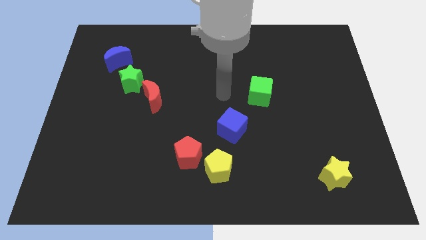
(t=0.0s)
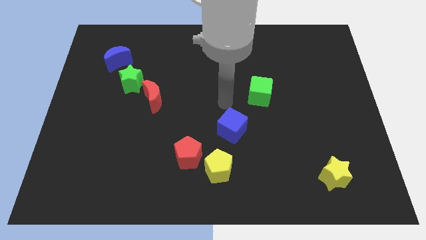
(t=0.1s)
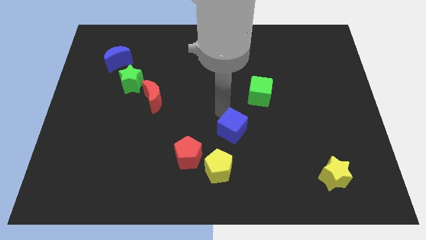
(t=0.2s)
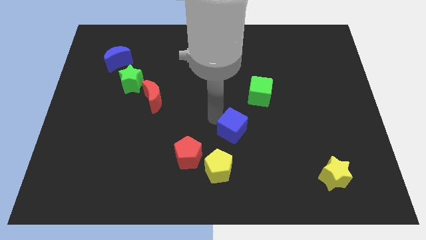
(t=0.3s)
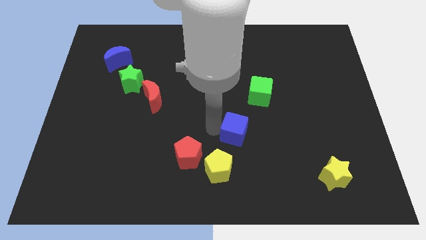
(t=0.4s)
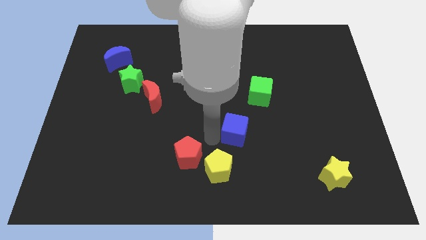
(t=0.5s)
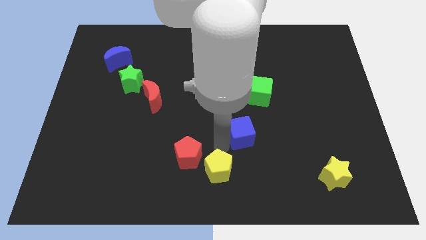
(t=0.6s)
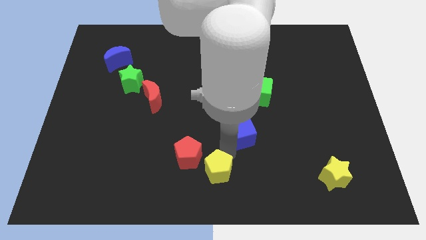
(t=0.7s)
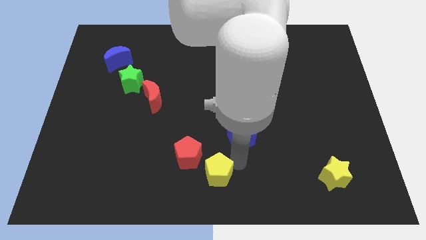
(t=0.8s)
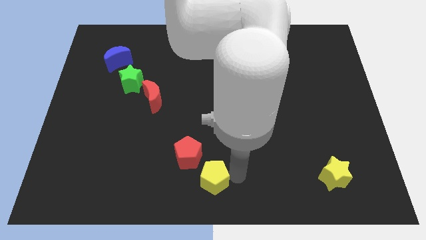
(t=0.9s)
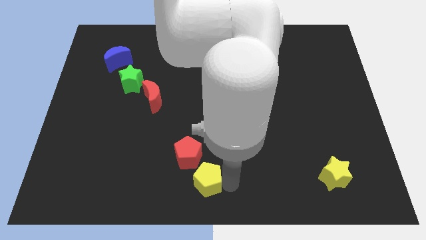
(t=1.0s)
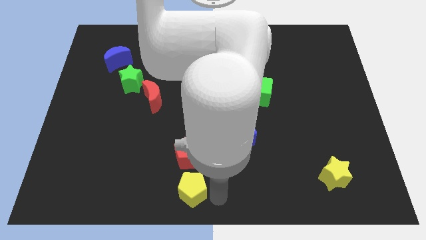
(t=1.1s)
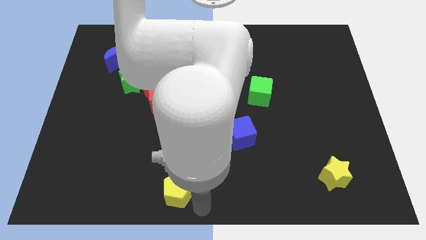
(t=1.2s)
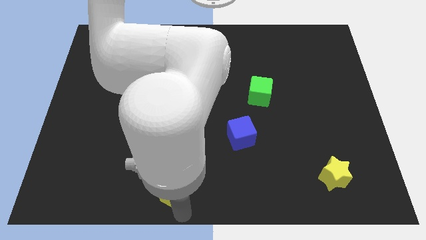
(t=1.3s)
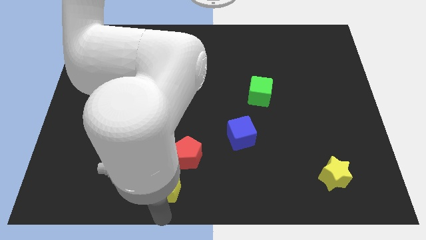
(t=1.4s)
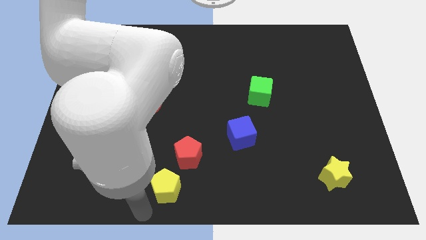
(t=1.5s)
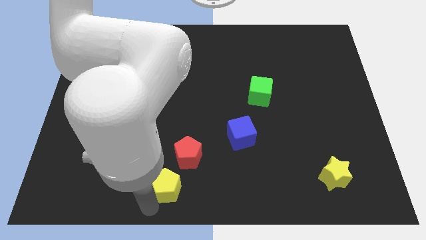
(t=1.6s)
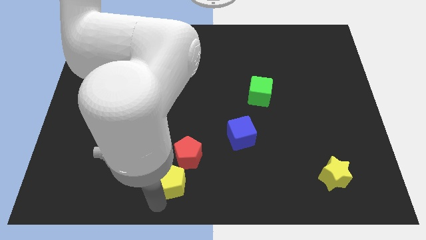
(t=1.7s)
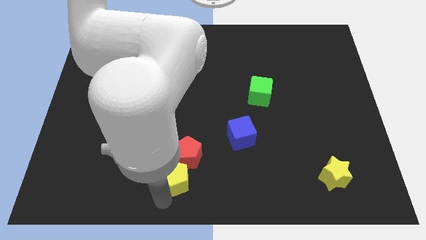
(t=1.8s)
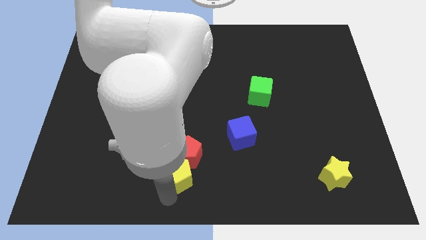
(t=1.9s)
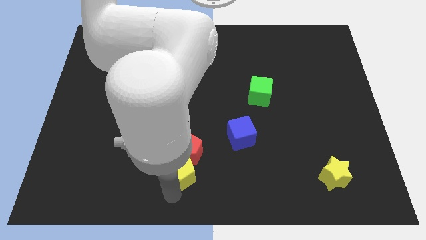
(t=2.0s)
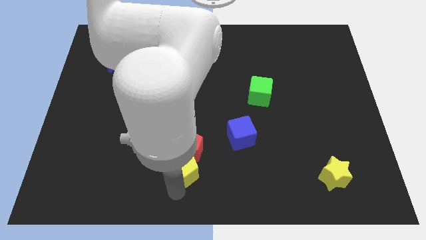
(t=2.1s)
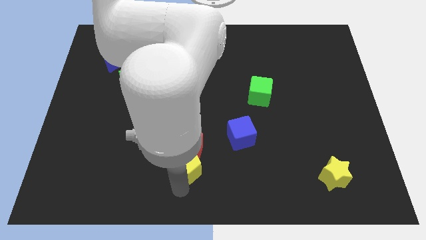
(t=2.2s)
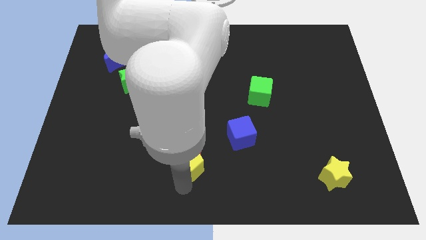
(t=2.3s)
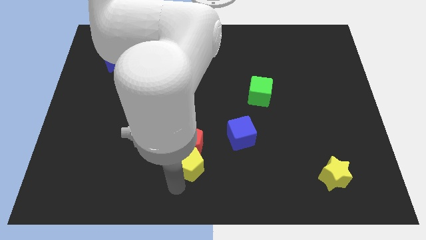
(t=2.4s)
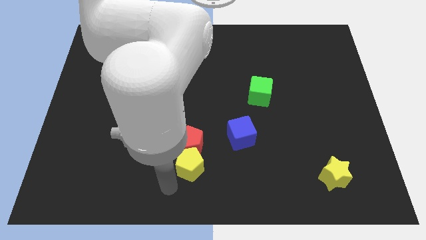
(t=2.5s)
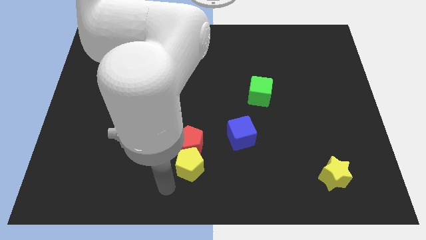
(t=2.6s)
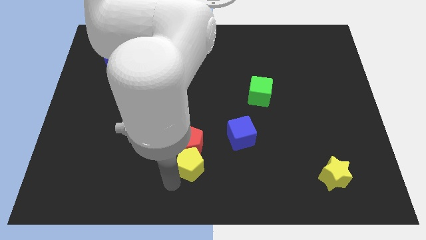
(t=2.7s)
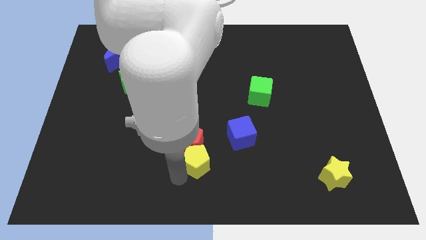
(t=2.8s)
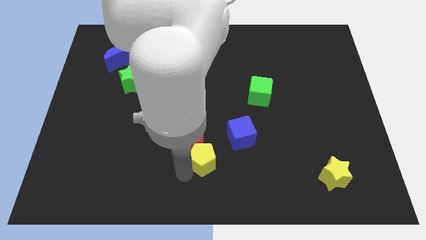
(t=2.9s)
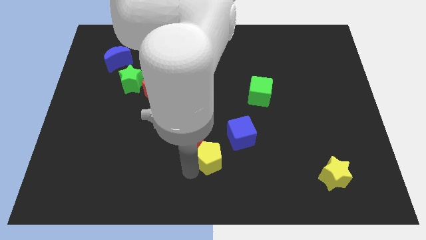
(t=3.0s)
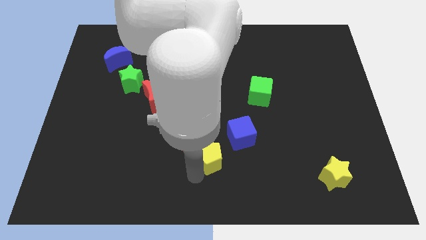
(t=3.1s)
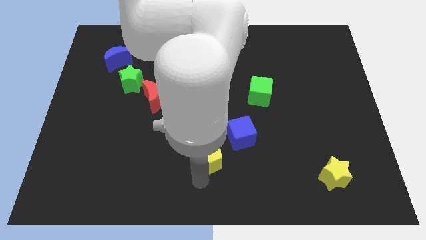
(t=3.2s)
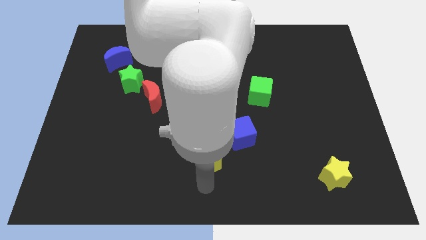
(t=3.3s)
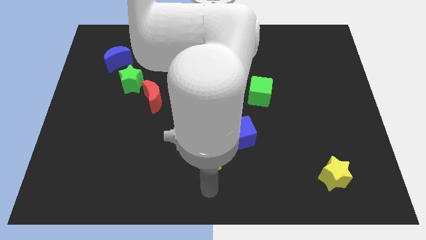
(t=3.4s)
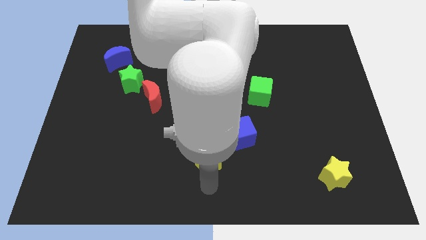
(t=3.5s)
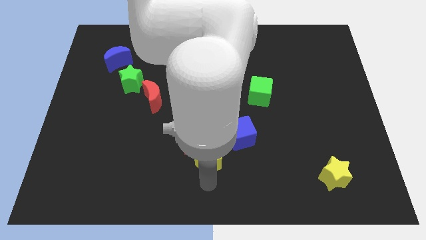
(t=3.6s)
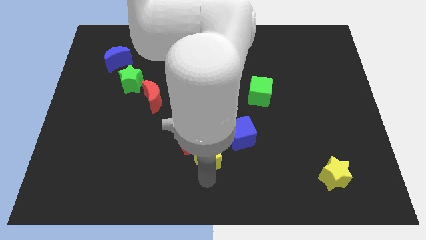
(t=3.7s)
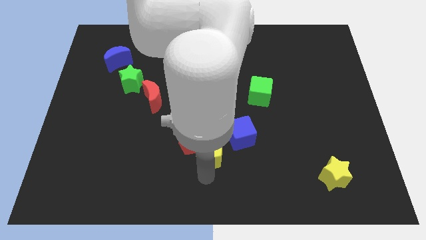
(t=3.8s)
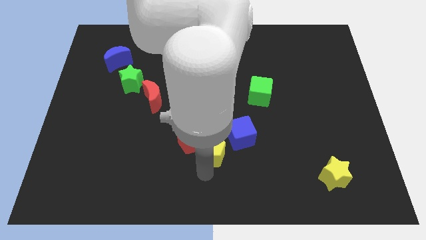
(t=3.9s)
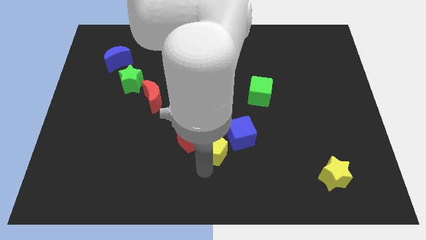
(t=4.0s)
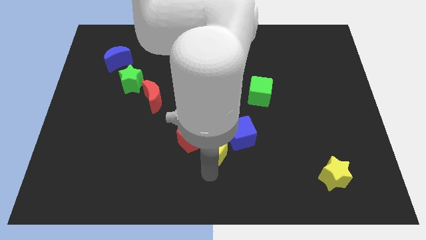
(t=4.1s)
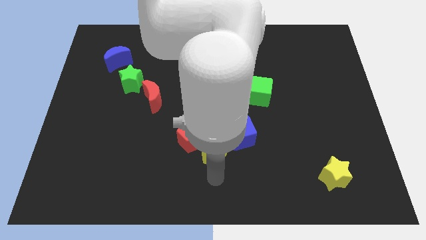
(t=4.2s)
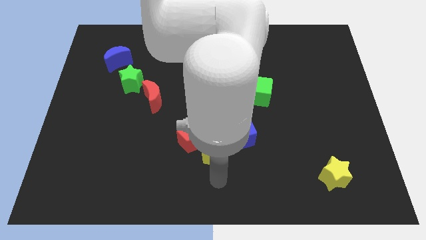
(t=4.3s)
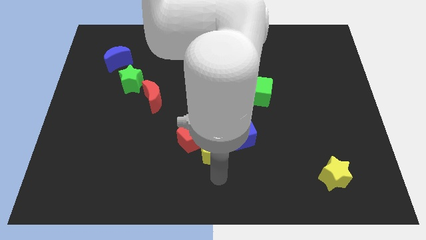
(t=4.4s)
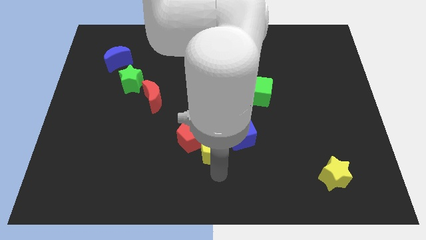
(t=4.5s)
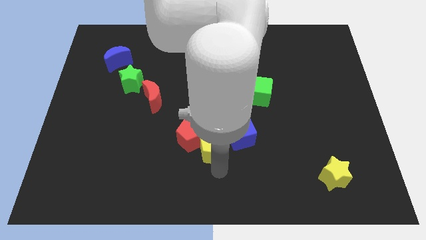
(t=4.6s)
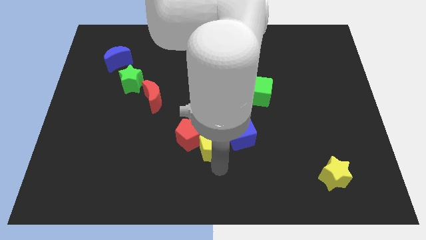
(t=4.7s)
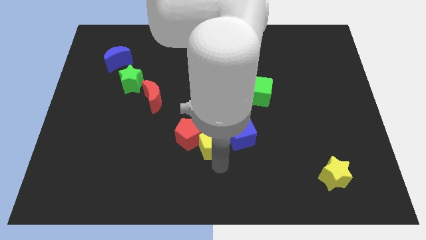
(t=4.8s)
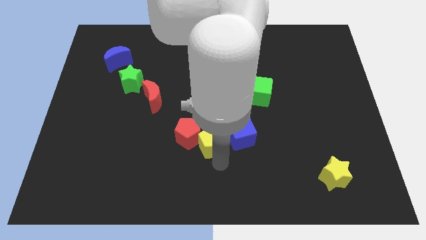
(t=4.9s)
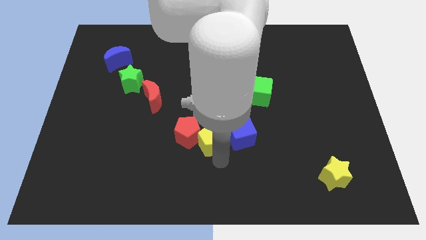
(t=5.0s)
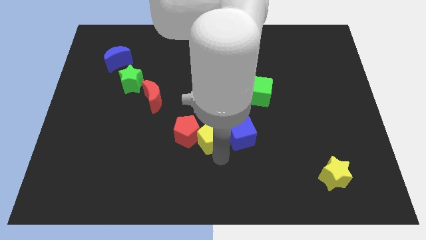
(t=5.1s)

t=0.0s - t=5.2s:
slightly slide the yellow pentagon up

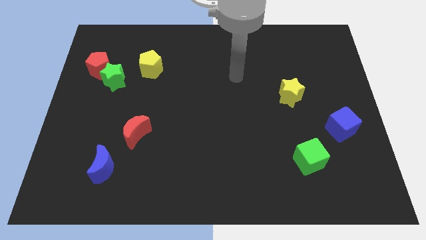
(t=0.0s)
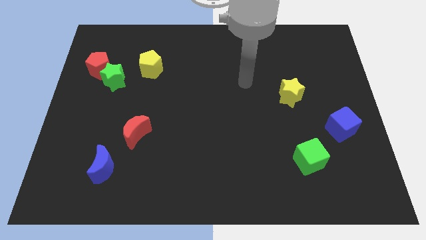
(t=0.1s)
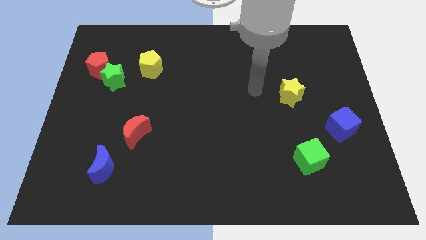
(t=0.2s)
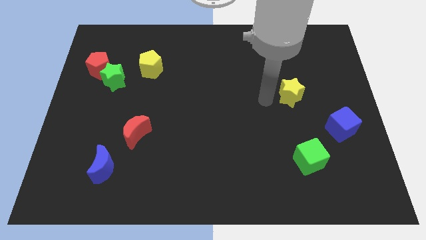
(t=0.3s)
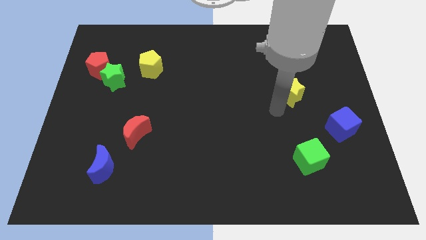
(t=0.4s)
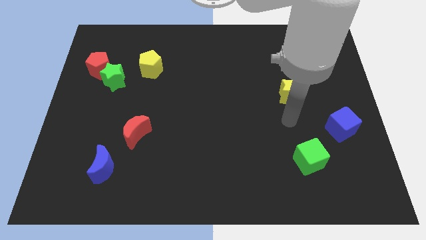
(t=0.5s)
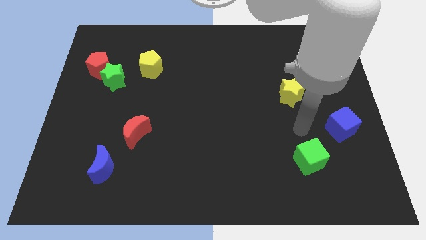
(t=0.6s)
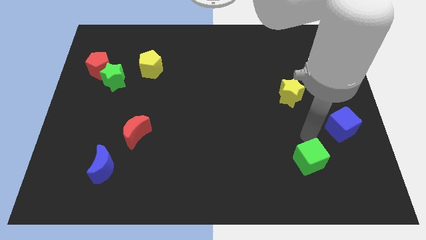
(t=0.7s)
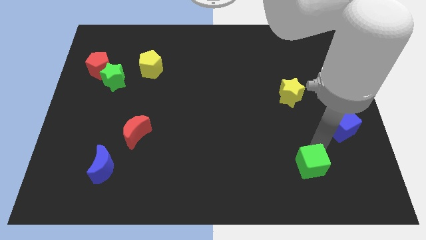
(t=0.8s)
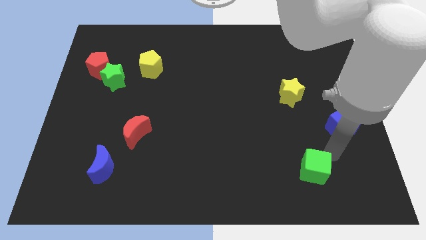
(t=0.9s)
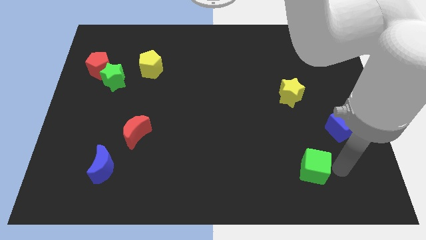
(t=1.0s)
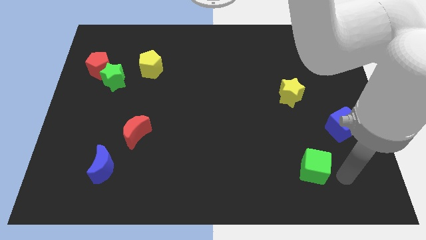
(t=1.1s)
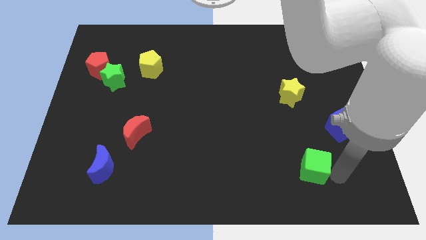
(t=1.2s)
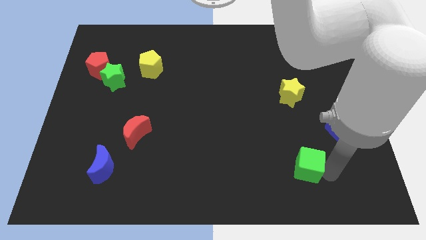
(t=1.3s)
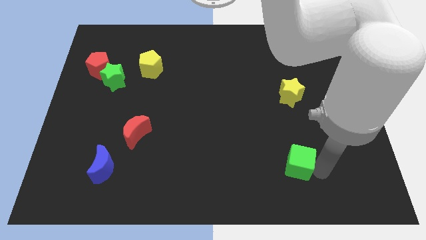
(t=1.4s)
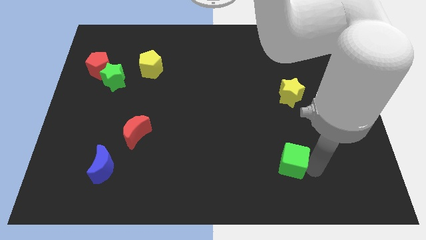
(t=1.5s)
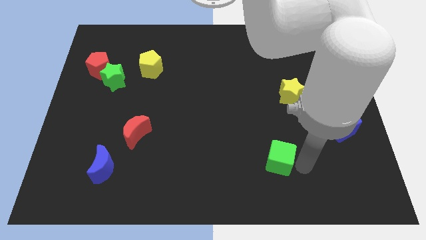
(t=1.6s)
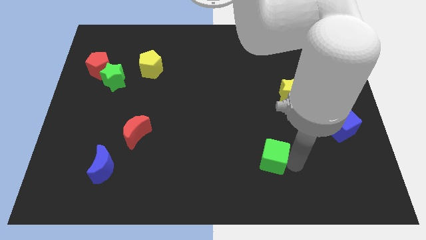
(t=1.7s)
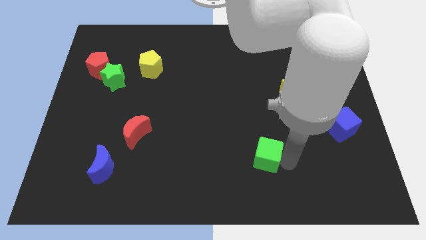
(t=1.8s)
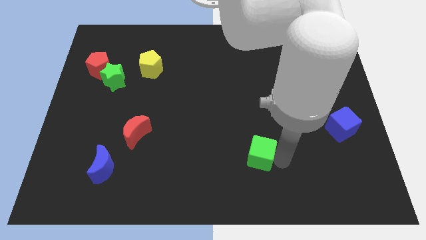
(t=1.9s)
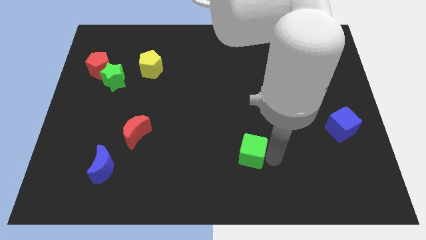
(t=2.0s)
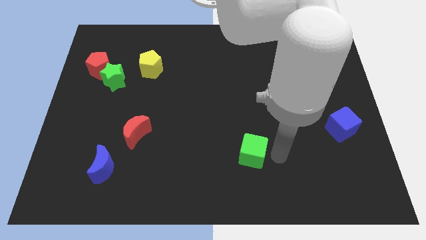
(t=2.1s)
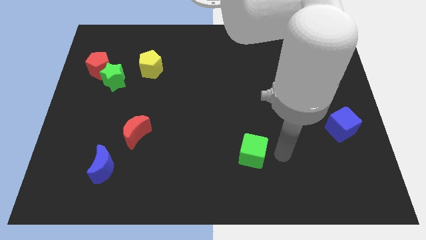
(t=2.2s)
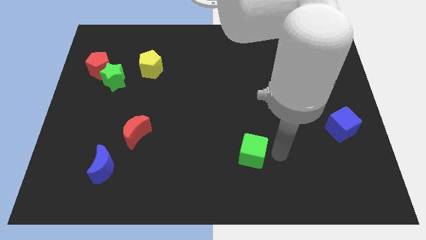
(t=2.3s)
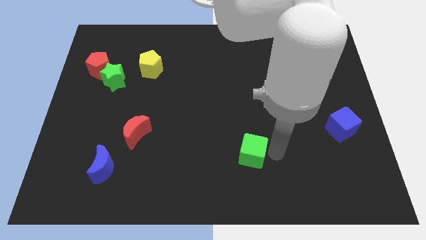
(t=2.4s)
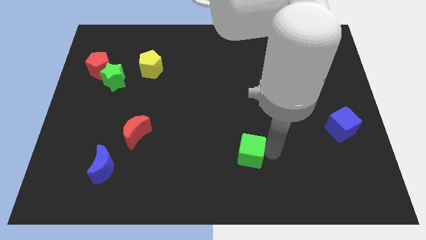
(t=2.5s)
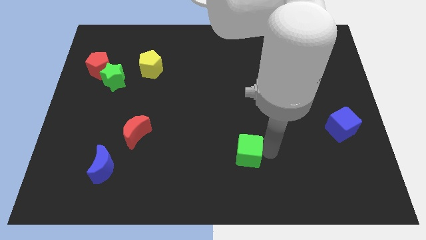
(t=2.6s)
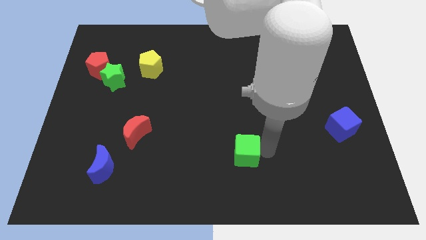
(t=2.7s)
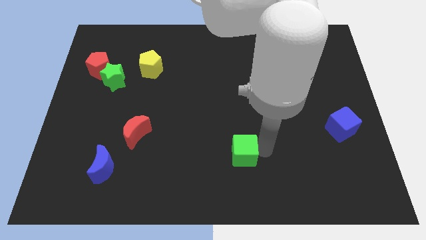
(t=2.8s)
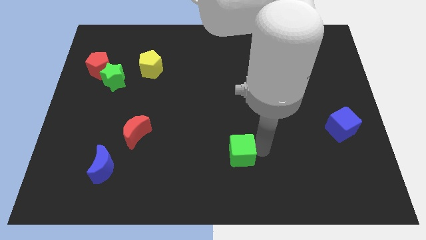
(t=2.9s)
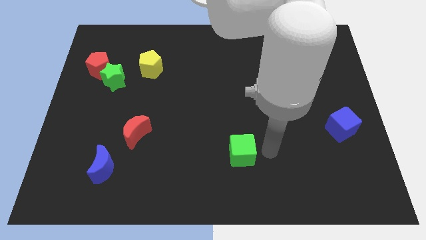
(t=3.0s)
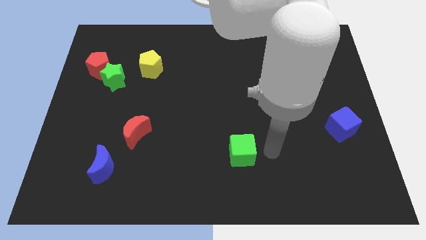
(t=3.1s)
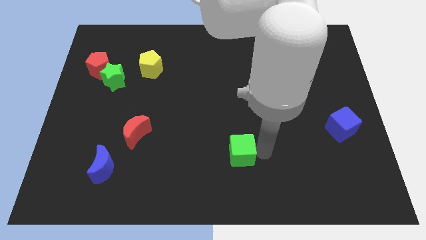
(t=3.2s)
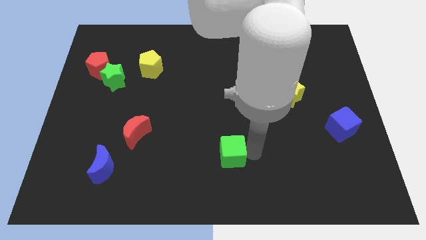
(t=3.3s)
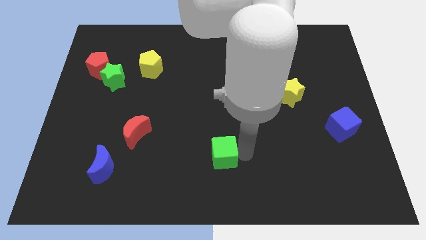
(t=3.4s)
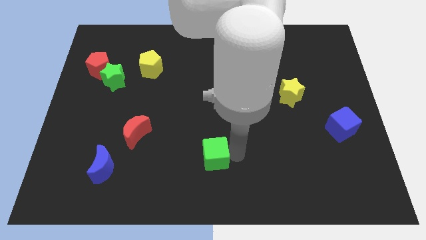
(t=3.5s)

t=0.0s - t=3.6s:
push the green cube left
